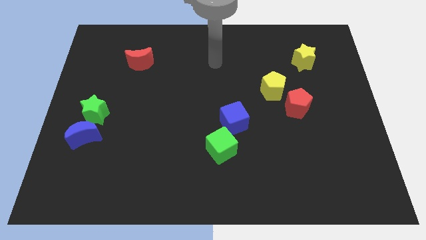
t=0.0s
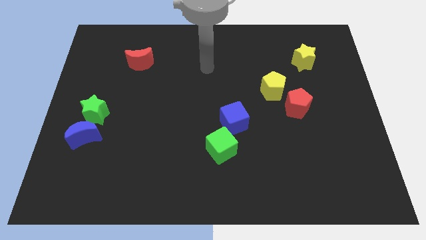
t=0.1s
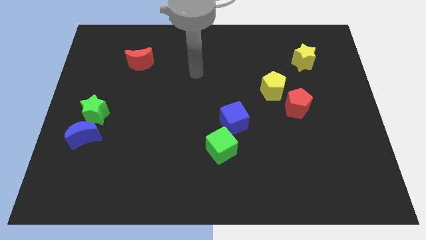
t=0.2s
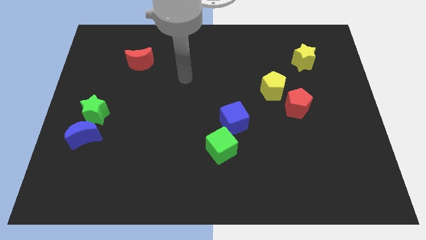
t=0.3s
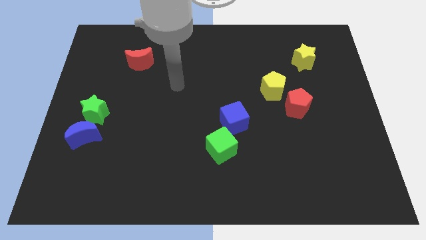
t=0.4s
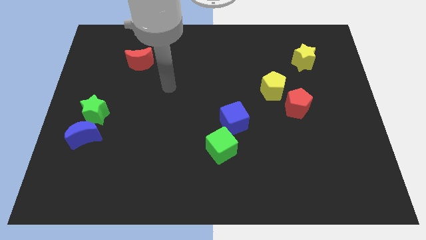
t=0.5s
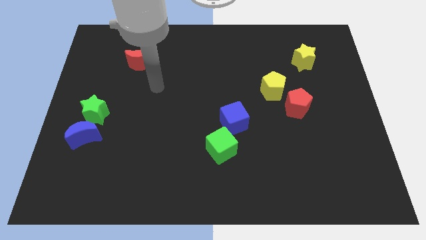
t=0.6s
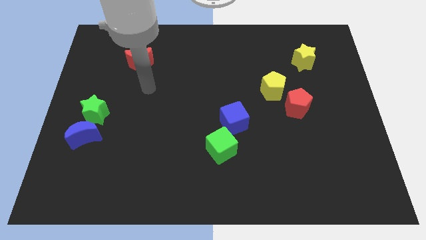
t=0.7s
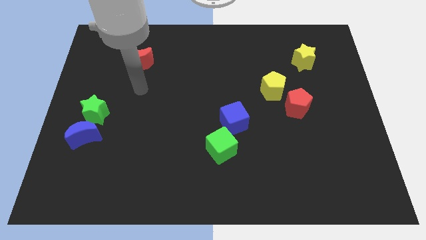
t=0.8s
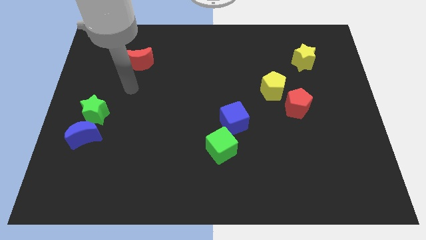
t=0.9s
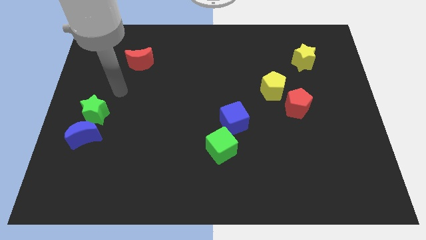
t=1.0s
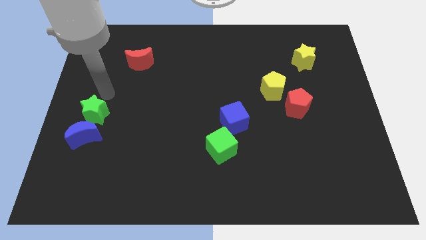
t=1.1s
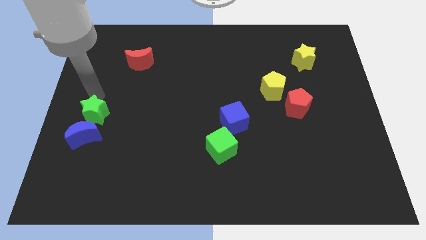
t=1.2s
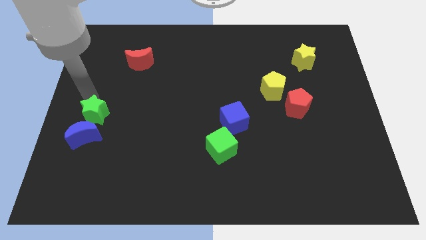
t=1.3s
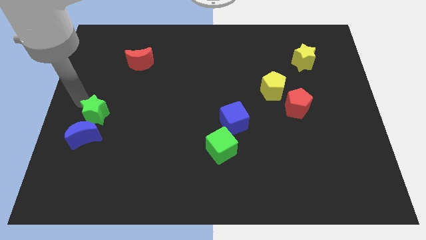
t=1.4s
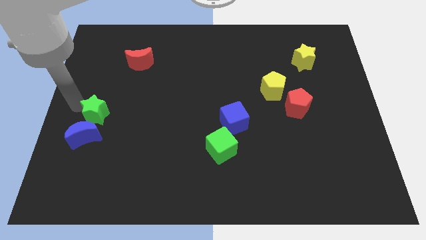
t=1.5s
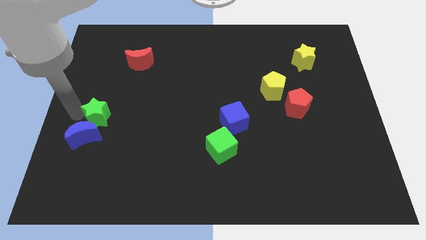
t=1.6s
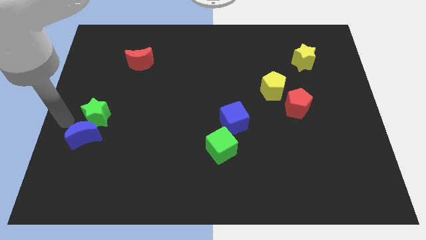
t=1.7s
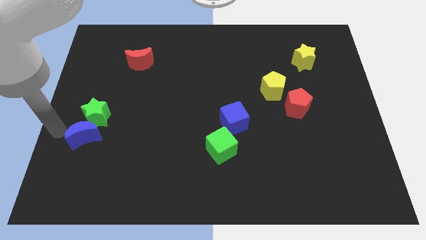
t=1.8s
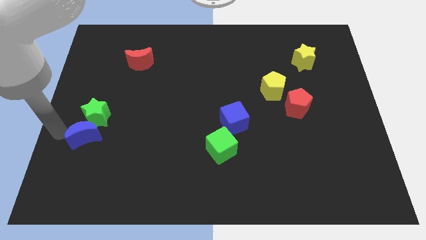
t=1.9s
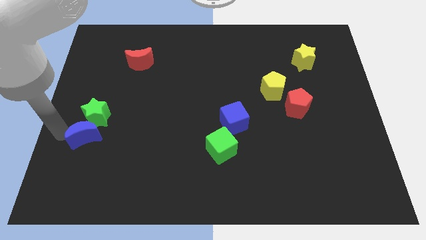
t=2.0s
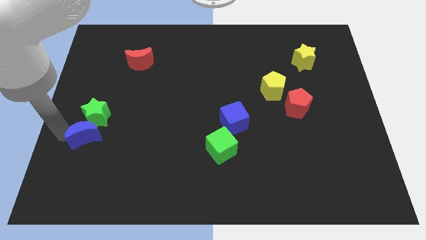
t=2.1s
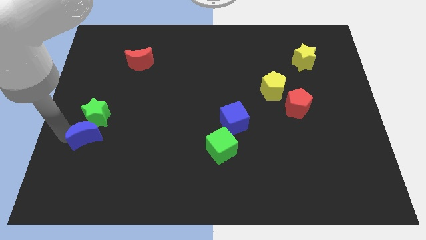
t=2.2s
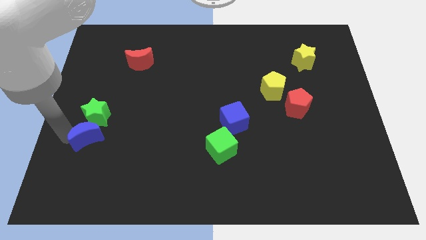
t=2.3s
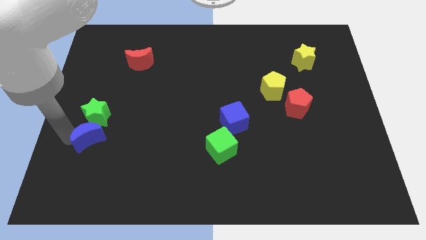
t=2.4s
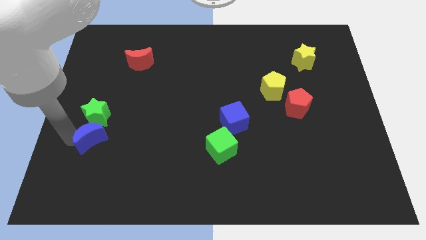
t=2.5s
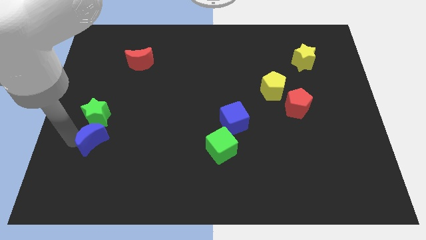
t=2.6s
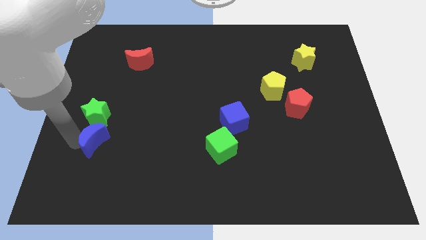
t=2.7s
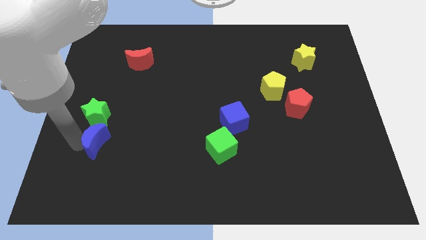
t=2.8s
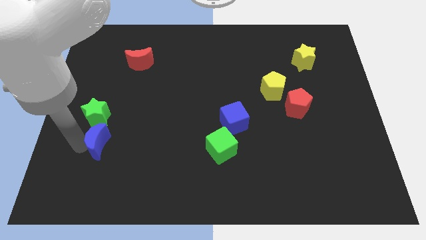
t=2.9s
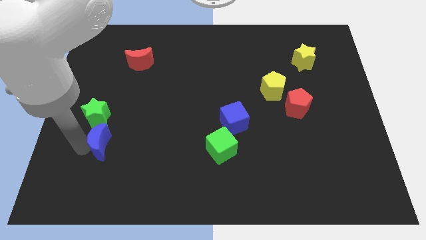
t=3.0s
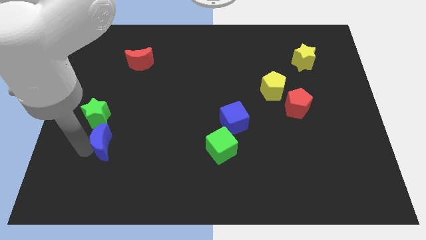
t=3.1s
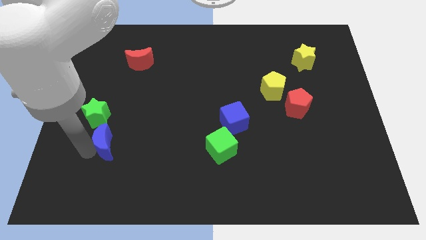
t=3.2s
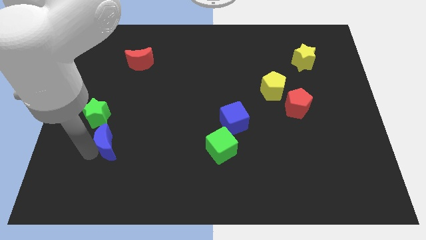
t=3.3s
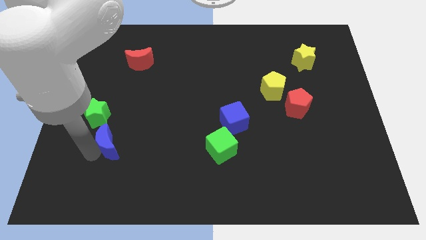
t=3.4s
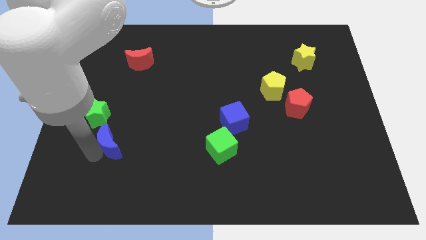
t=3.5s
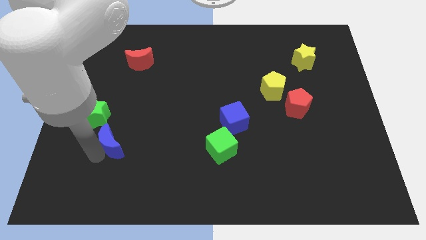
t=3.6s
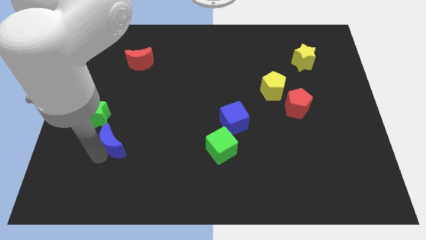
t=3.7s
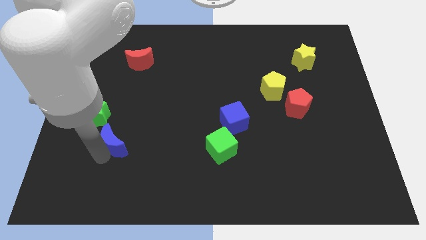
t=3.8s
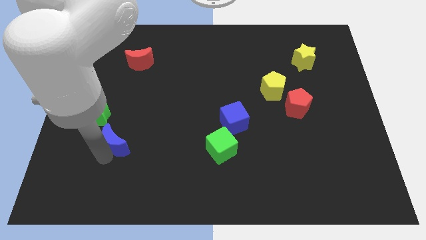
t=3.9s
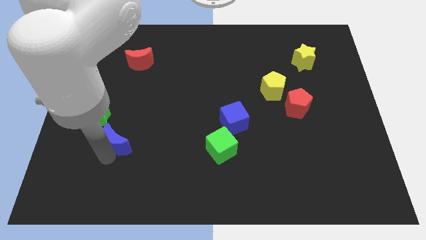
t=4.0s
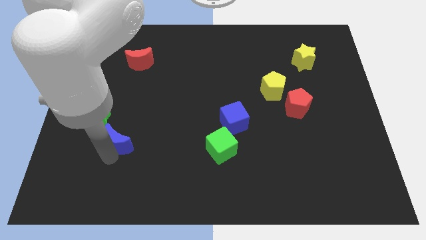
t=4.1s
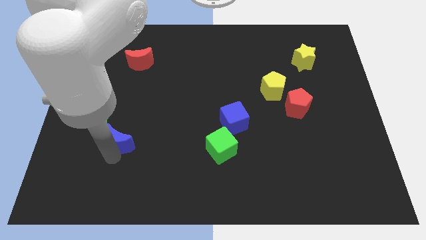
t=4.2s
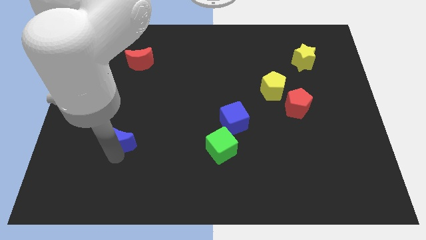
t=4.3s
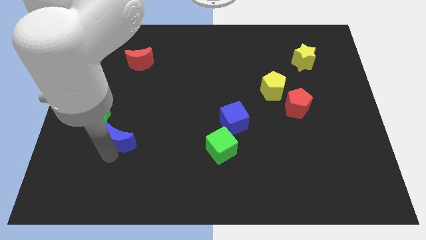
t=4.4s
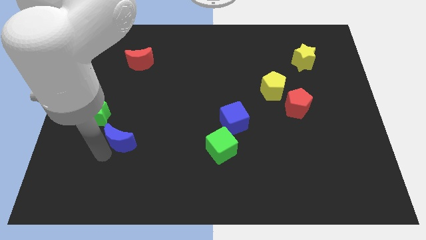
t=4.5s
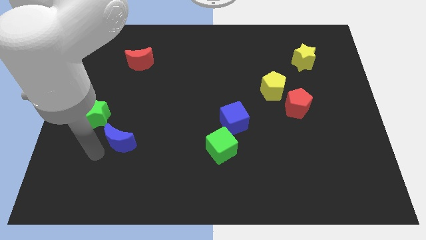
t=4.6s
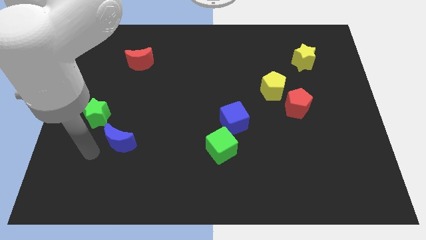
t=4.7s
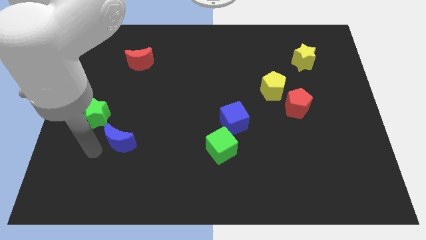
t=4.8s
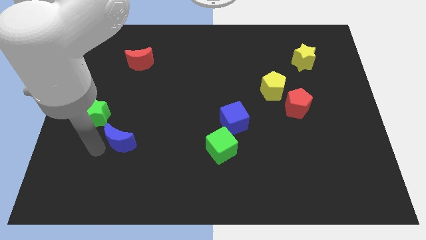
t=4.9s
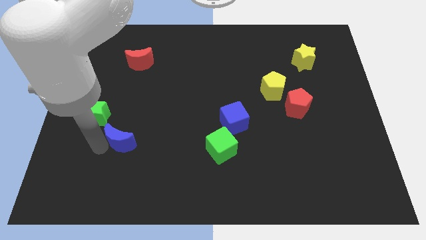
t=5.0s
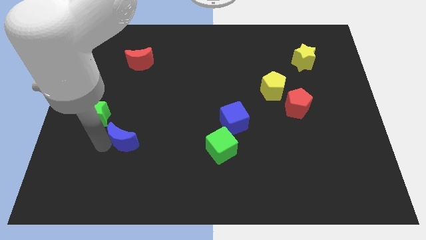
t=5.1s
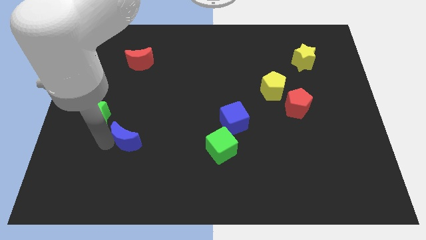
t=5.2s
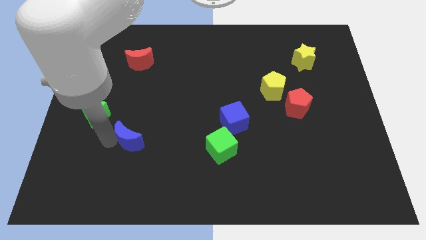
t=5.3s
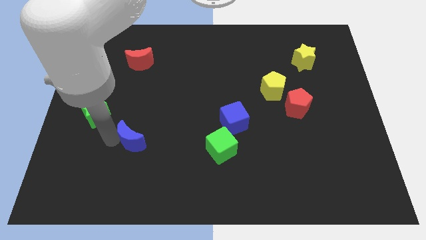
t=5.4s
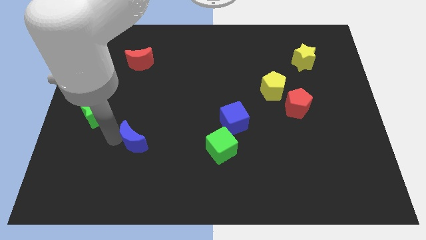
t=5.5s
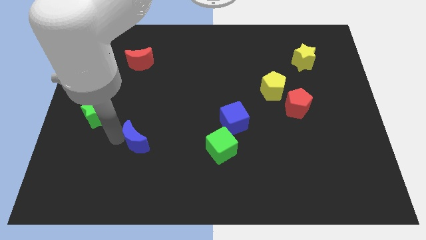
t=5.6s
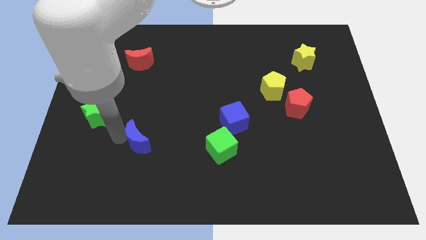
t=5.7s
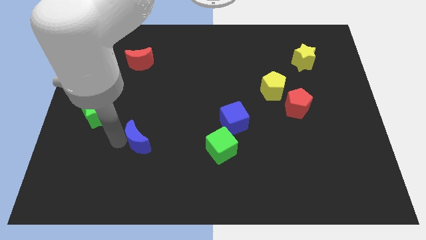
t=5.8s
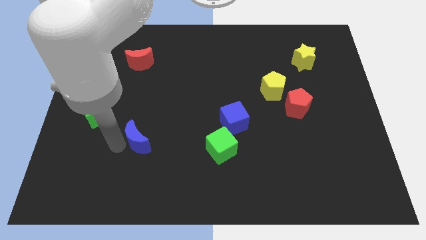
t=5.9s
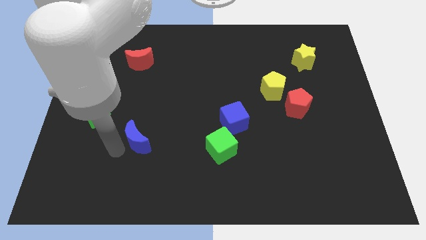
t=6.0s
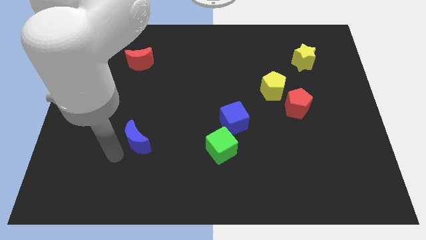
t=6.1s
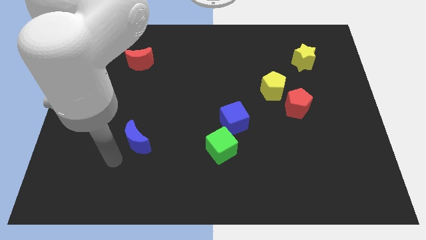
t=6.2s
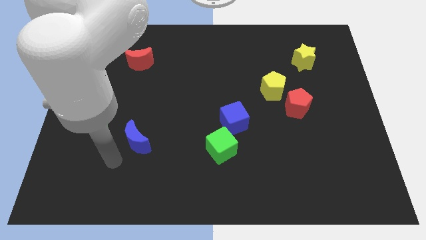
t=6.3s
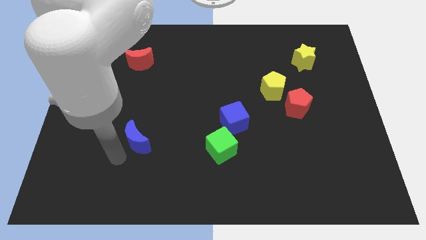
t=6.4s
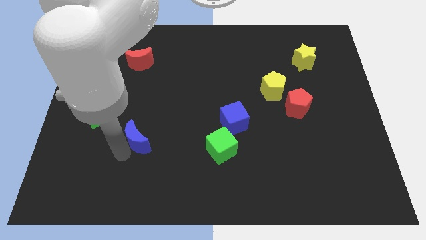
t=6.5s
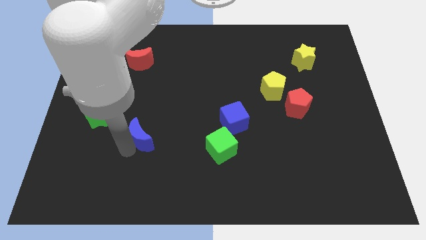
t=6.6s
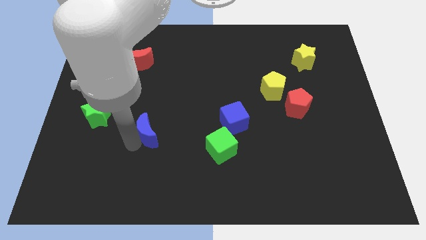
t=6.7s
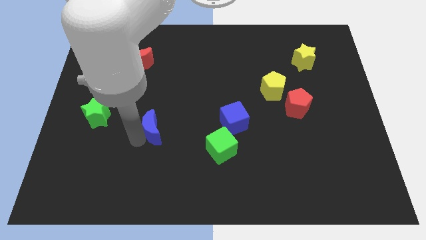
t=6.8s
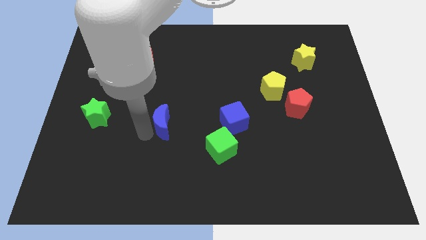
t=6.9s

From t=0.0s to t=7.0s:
move the blue moon to the left side of the blue cube
